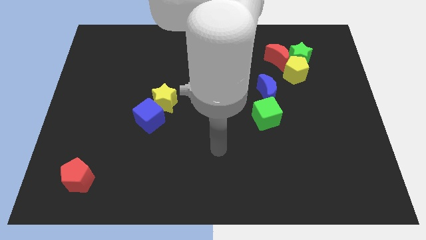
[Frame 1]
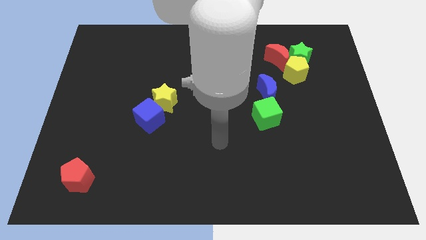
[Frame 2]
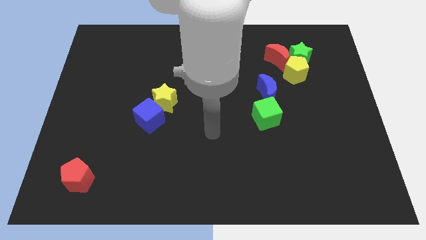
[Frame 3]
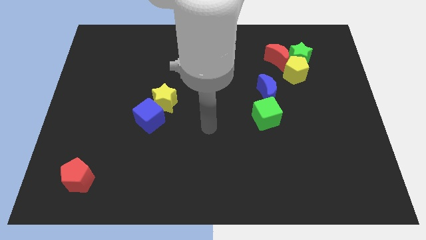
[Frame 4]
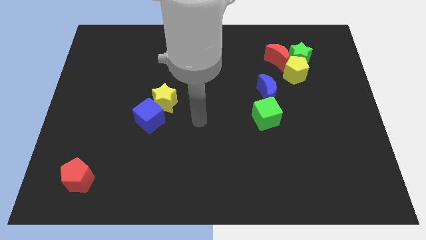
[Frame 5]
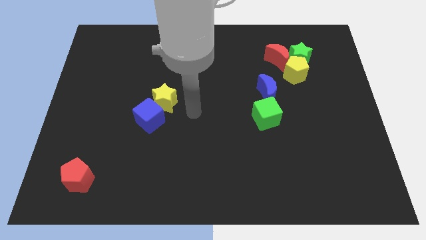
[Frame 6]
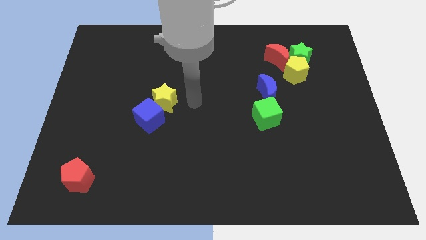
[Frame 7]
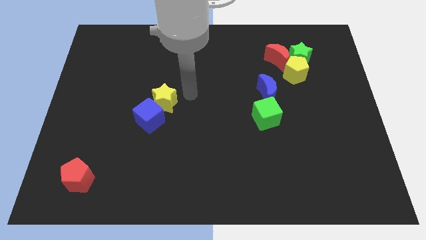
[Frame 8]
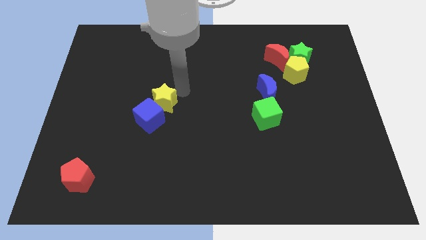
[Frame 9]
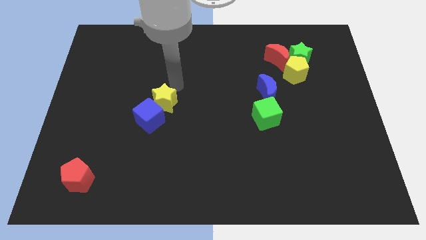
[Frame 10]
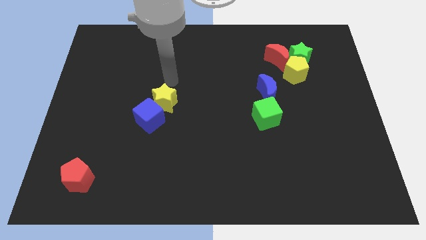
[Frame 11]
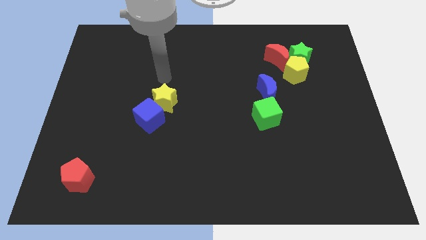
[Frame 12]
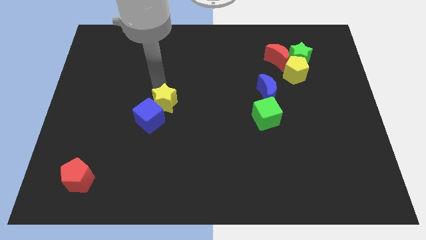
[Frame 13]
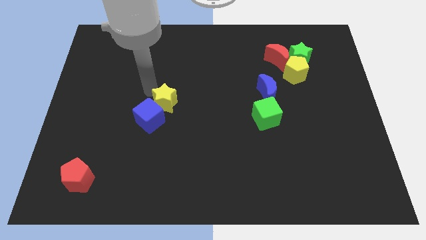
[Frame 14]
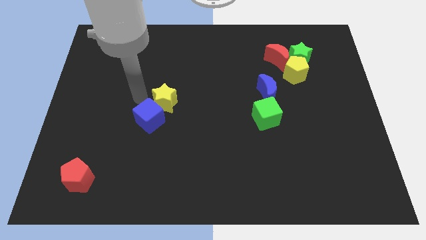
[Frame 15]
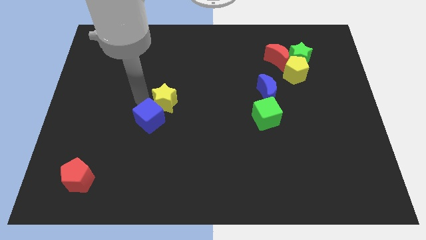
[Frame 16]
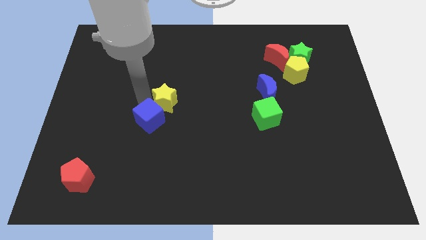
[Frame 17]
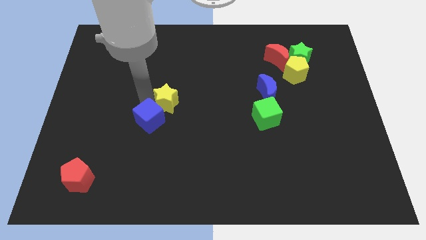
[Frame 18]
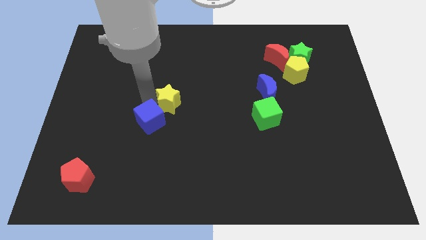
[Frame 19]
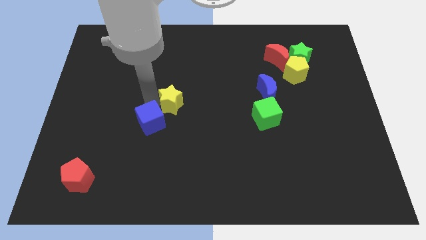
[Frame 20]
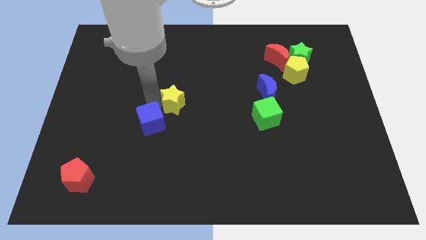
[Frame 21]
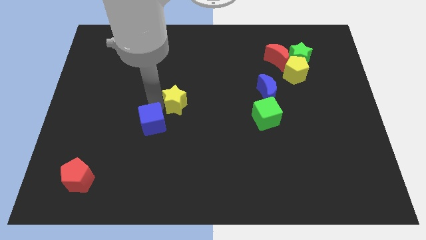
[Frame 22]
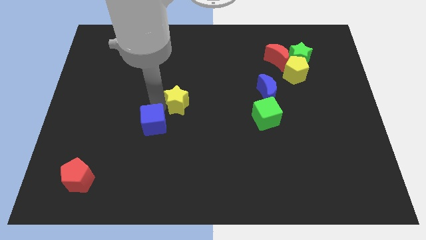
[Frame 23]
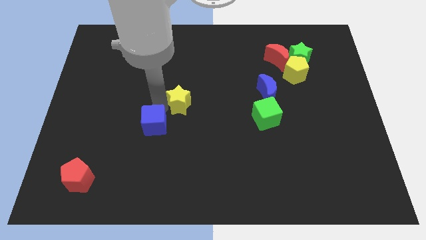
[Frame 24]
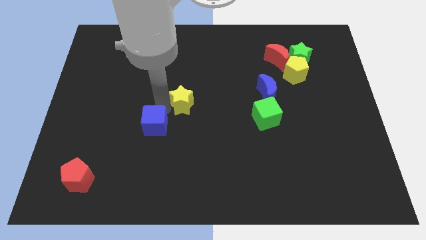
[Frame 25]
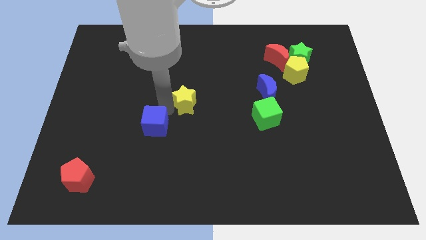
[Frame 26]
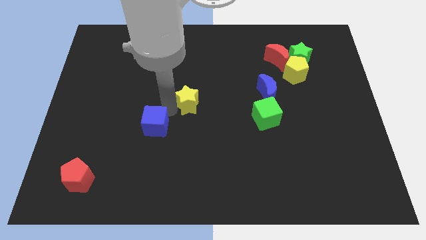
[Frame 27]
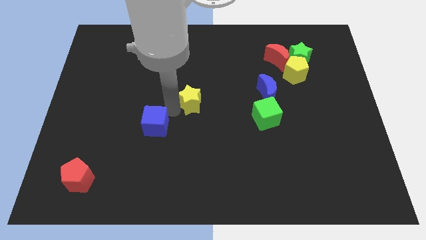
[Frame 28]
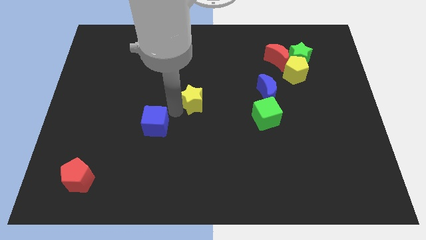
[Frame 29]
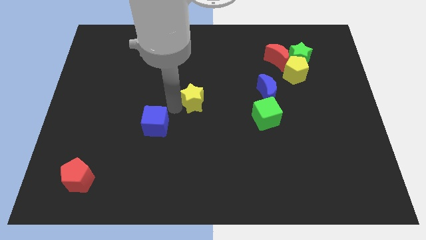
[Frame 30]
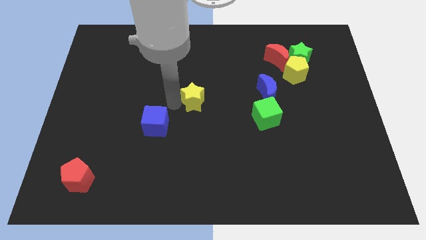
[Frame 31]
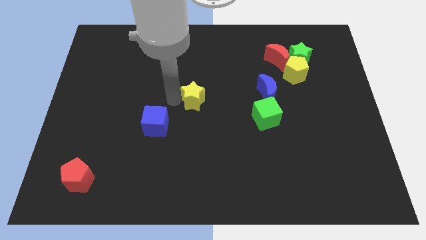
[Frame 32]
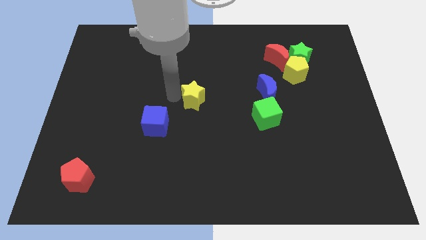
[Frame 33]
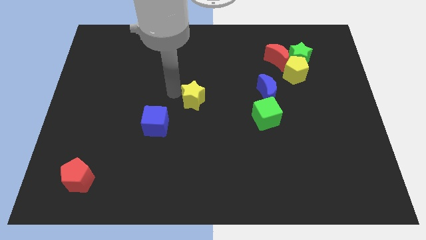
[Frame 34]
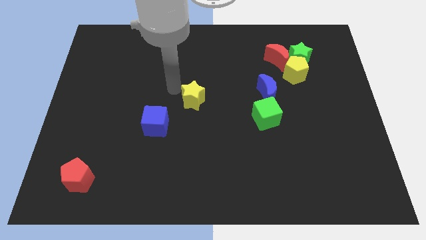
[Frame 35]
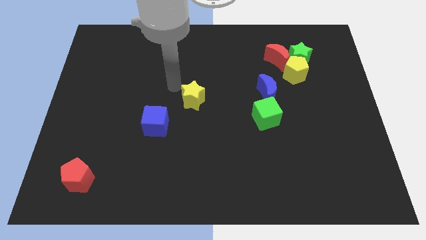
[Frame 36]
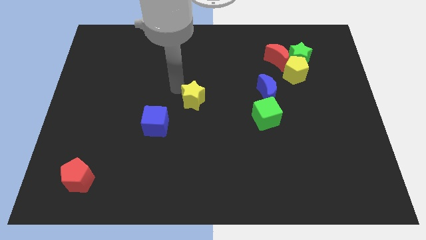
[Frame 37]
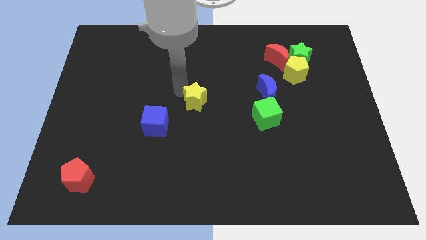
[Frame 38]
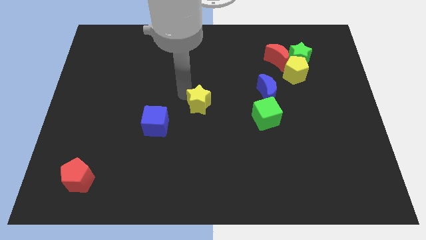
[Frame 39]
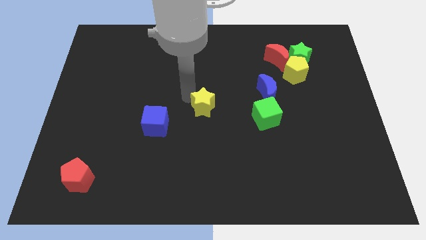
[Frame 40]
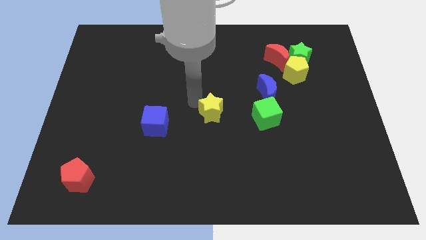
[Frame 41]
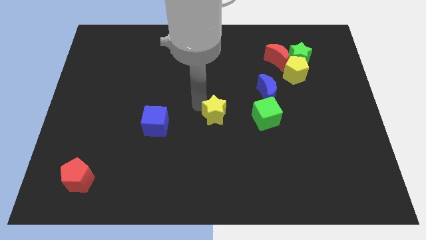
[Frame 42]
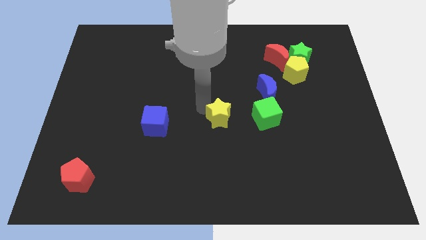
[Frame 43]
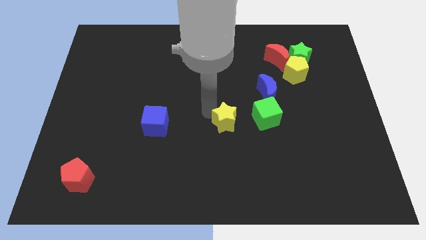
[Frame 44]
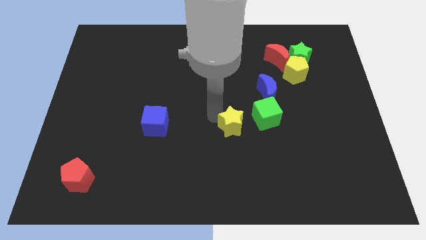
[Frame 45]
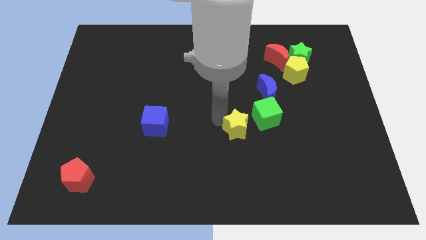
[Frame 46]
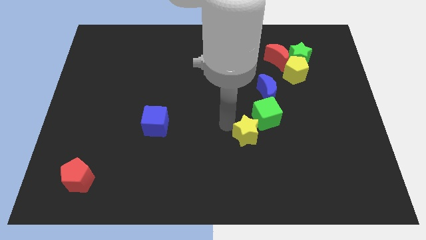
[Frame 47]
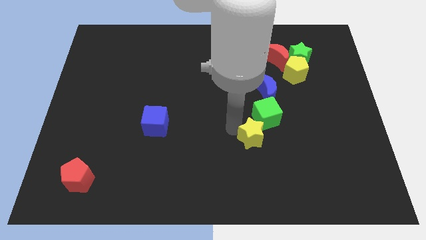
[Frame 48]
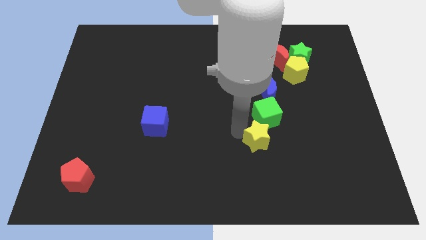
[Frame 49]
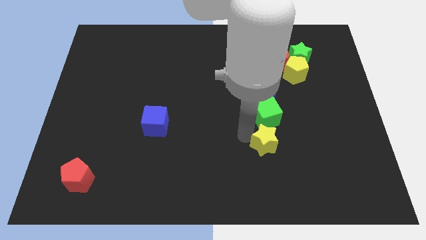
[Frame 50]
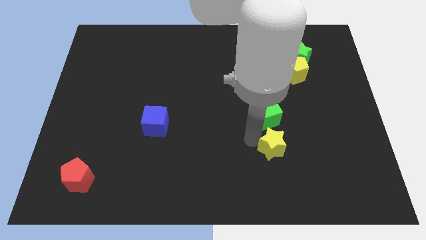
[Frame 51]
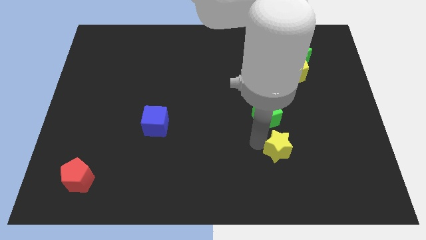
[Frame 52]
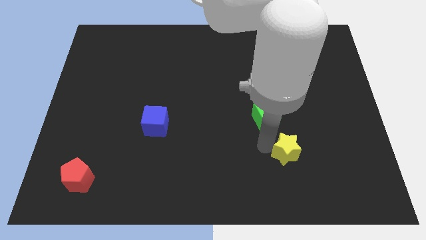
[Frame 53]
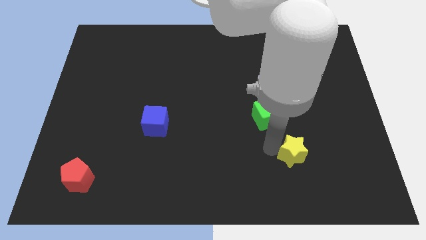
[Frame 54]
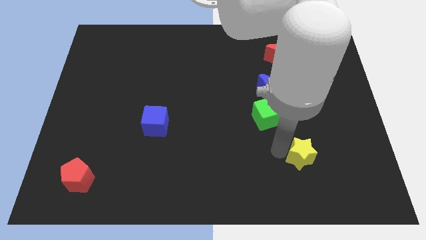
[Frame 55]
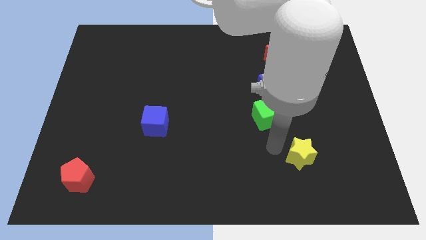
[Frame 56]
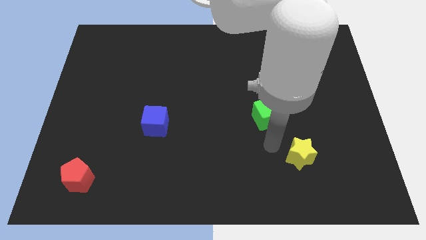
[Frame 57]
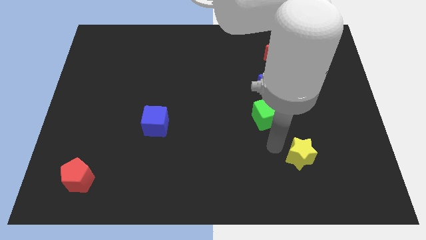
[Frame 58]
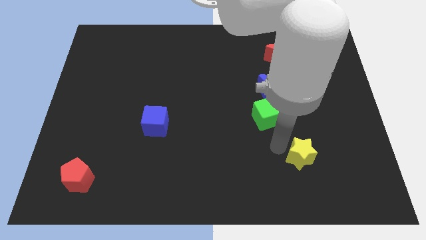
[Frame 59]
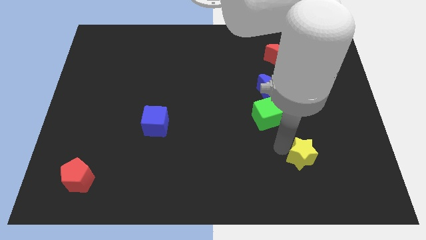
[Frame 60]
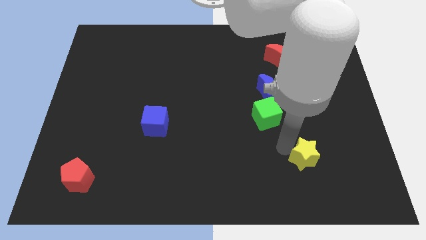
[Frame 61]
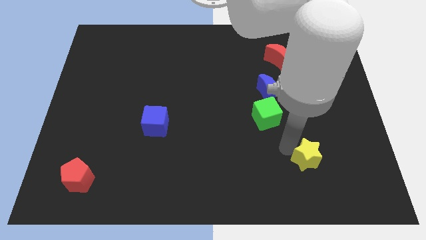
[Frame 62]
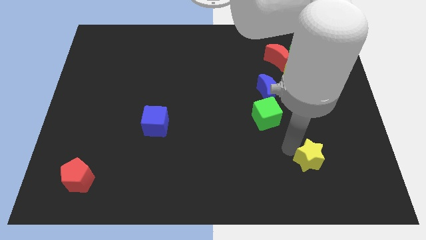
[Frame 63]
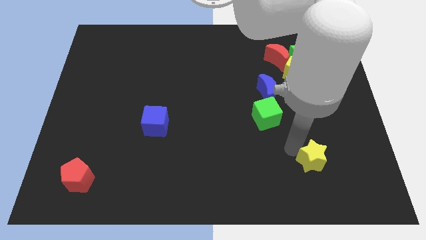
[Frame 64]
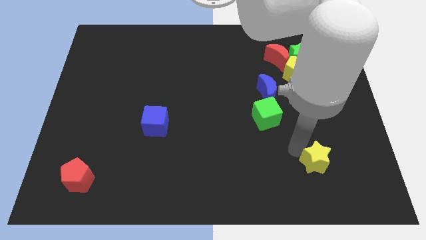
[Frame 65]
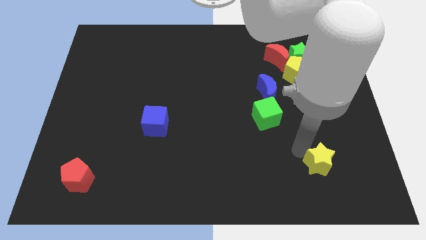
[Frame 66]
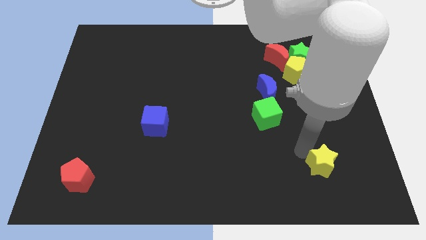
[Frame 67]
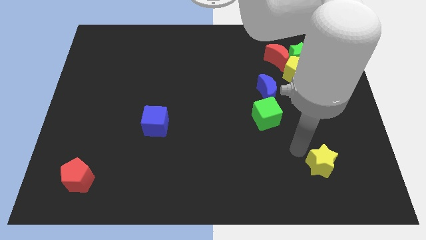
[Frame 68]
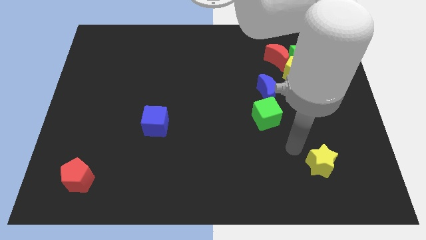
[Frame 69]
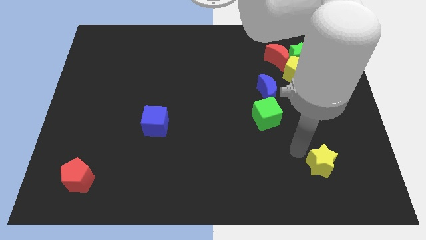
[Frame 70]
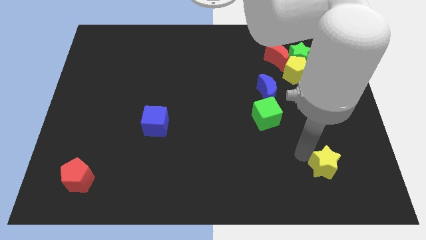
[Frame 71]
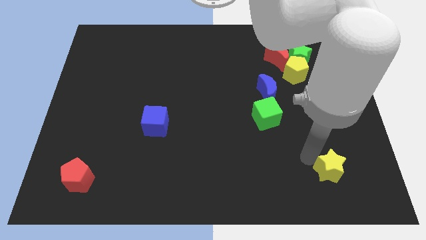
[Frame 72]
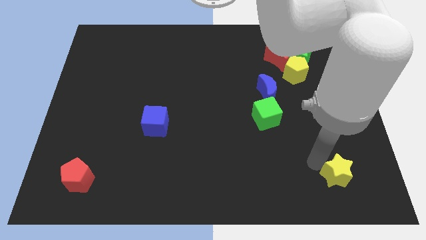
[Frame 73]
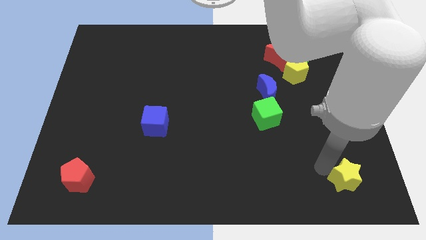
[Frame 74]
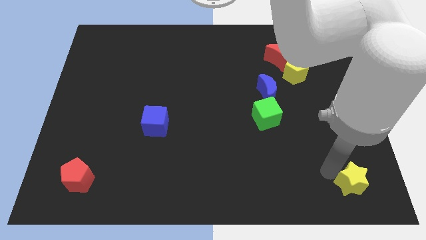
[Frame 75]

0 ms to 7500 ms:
put the yellow star to the bottom right
